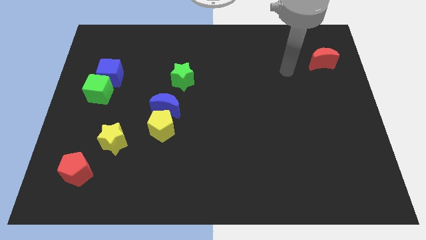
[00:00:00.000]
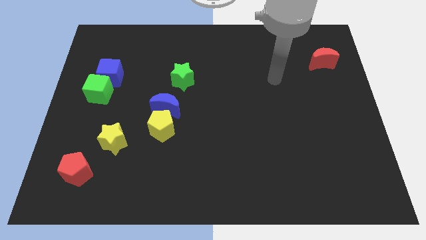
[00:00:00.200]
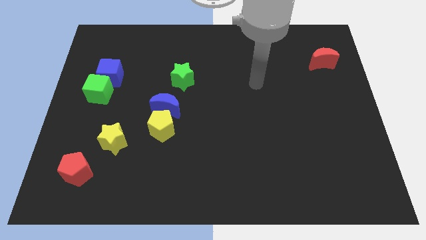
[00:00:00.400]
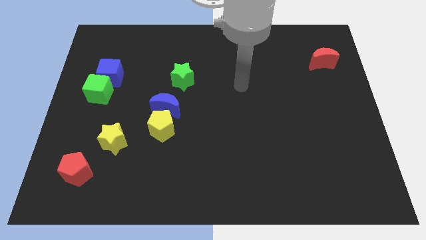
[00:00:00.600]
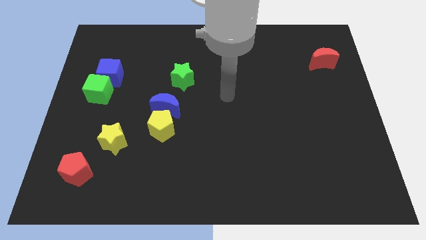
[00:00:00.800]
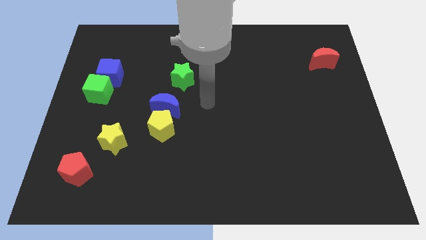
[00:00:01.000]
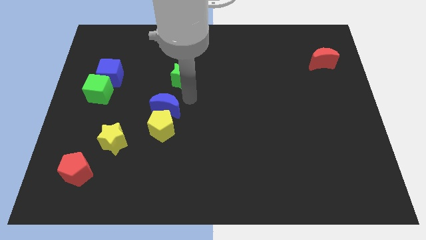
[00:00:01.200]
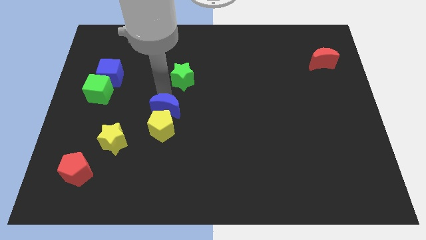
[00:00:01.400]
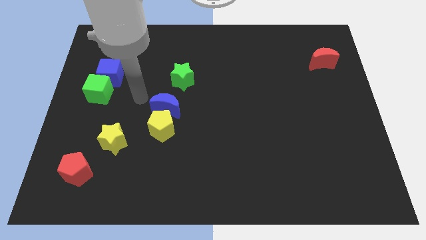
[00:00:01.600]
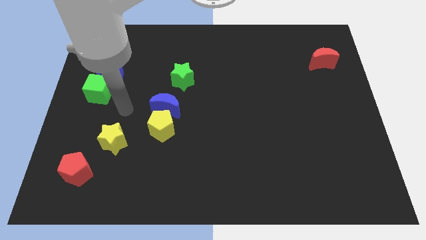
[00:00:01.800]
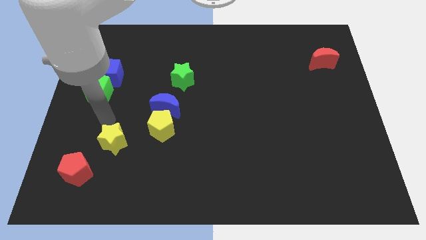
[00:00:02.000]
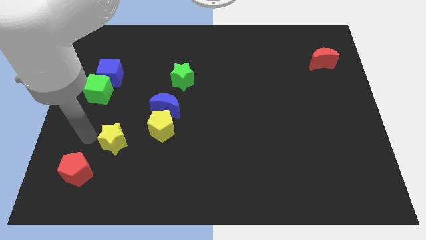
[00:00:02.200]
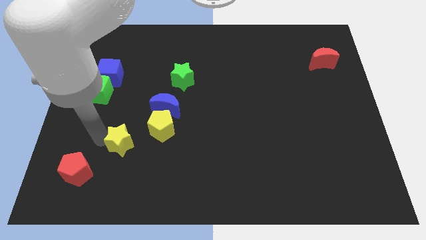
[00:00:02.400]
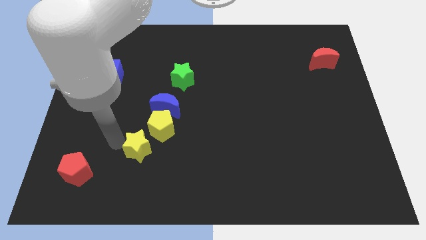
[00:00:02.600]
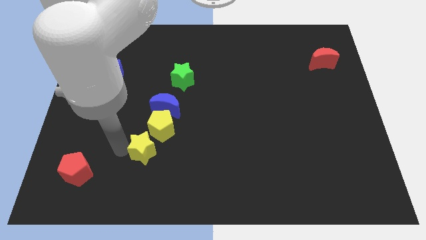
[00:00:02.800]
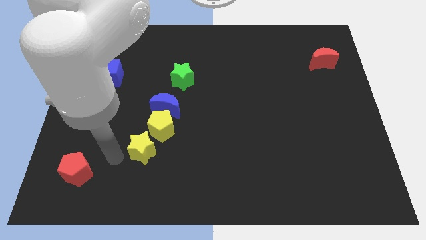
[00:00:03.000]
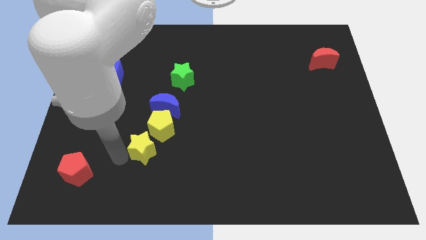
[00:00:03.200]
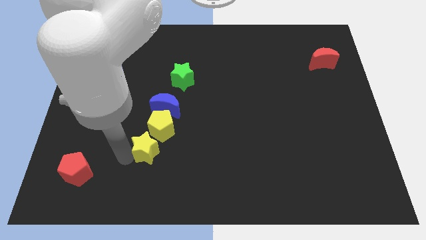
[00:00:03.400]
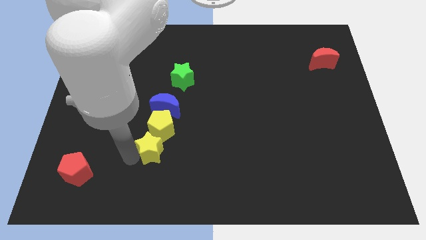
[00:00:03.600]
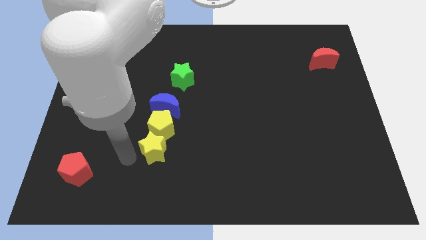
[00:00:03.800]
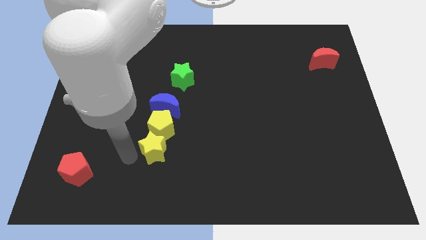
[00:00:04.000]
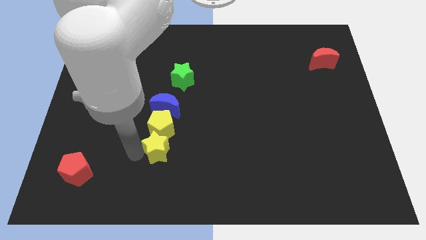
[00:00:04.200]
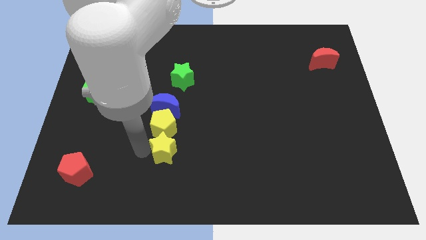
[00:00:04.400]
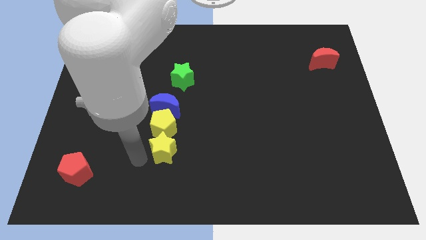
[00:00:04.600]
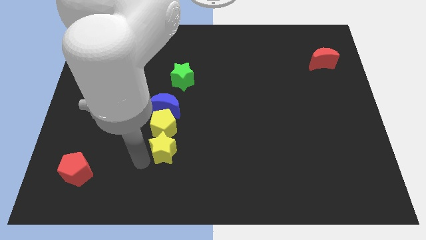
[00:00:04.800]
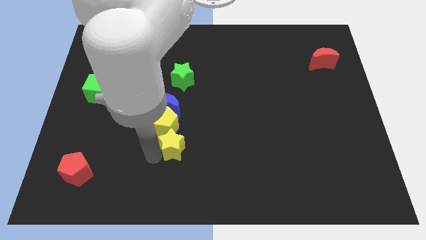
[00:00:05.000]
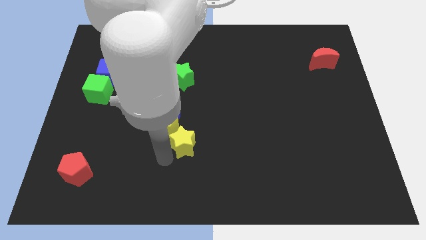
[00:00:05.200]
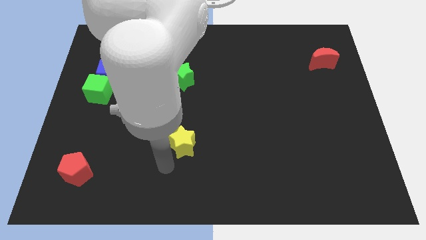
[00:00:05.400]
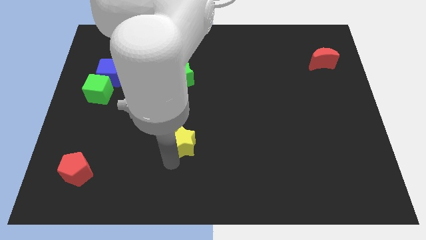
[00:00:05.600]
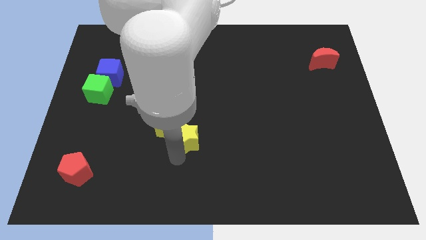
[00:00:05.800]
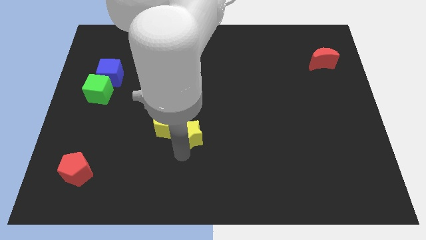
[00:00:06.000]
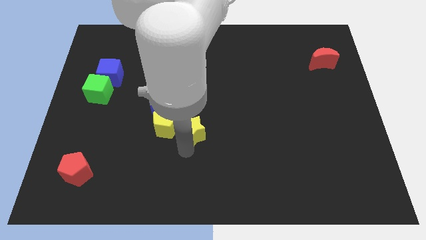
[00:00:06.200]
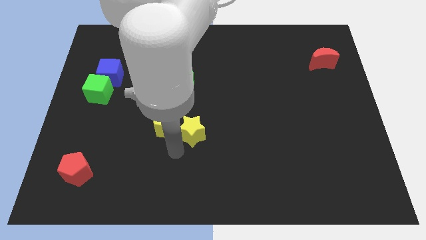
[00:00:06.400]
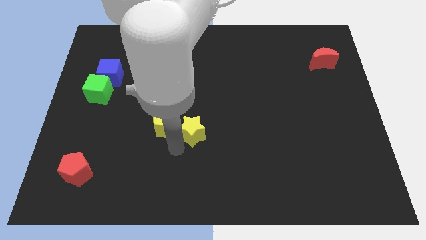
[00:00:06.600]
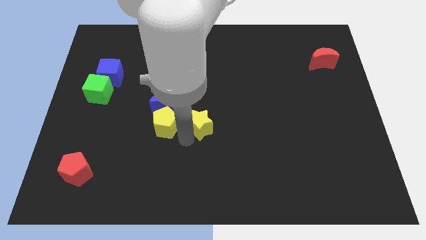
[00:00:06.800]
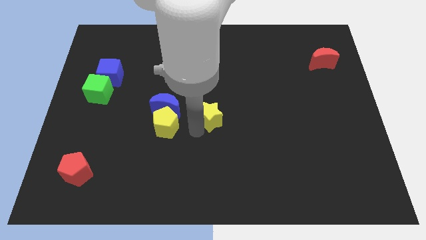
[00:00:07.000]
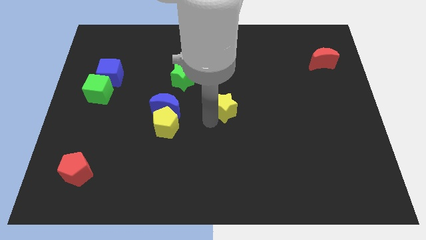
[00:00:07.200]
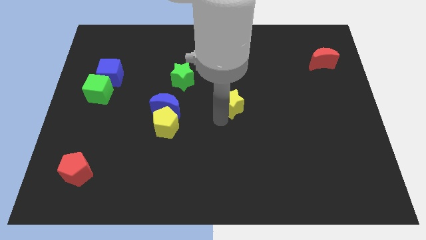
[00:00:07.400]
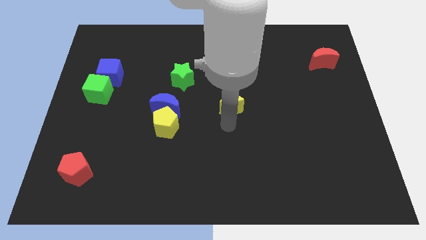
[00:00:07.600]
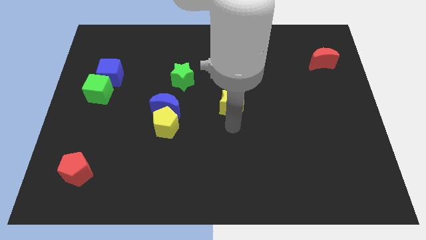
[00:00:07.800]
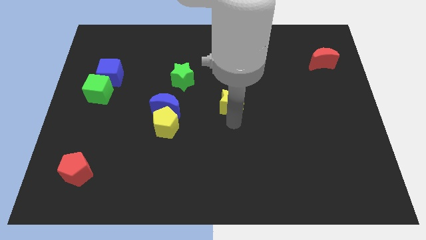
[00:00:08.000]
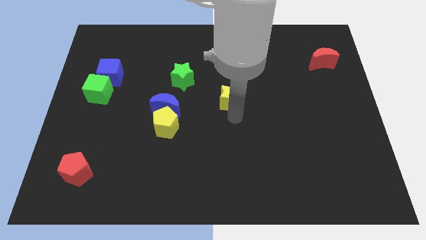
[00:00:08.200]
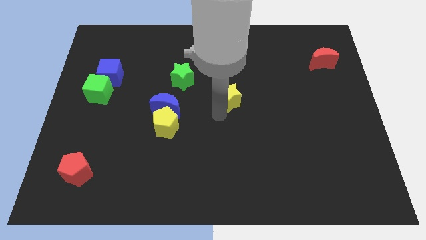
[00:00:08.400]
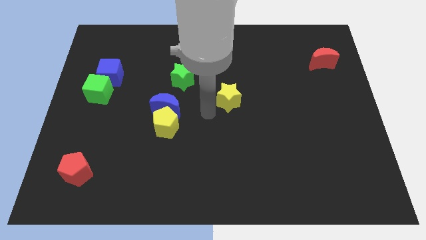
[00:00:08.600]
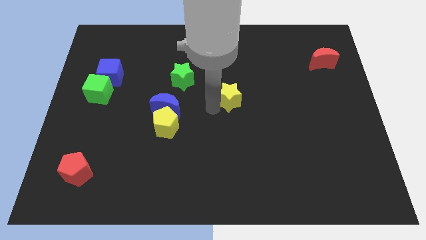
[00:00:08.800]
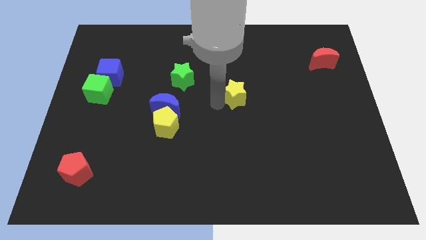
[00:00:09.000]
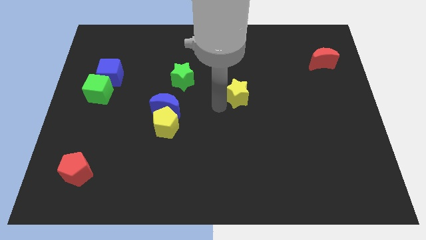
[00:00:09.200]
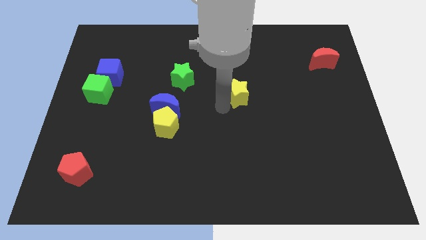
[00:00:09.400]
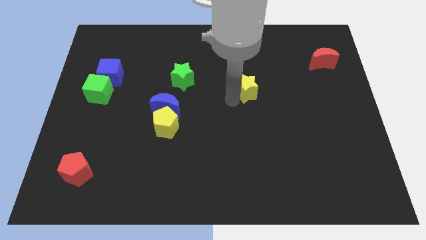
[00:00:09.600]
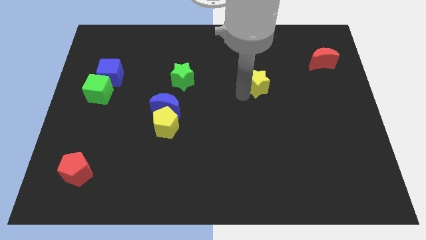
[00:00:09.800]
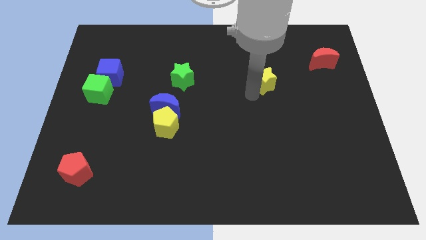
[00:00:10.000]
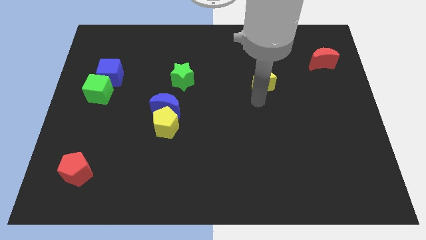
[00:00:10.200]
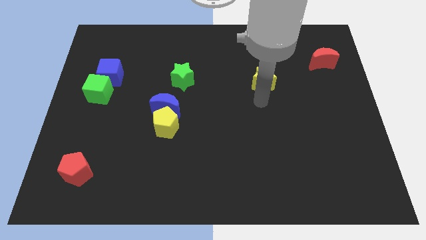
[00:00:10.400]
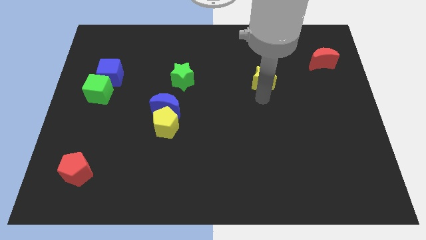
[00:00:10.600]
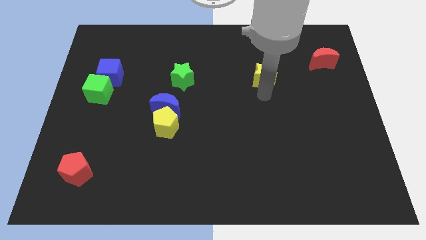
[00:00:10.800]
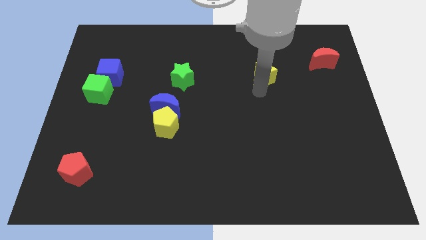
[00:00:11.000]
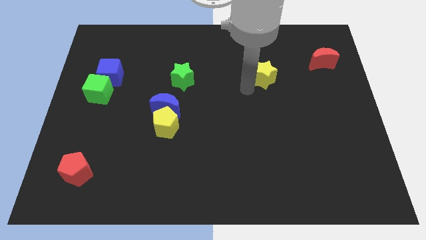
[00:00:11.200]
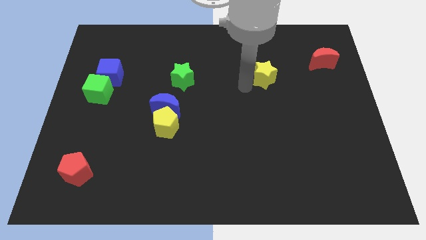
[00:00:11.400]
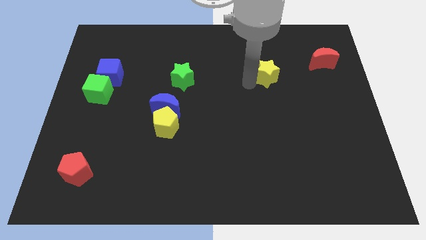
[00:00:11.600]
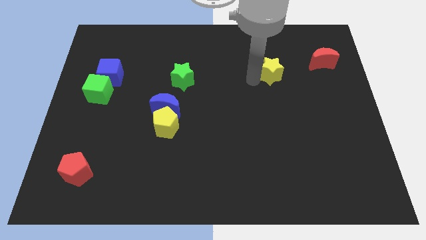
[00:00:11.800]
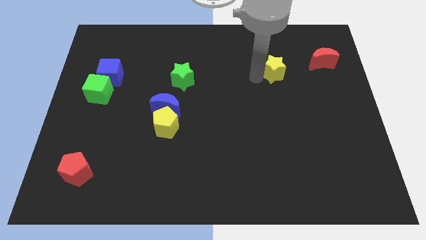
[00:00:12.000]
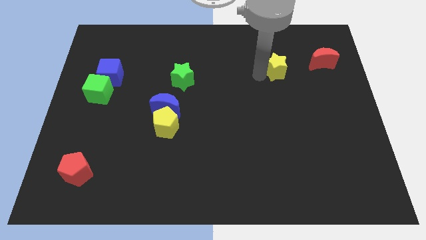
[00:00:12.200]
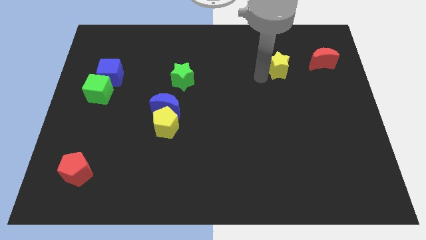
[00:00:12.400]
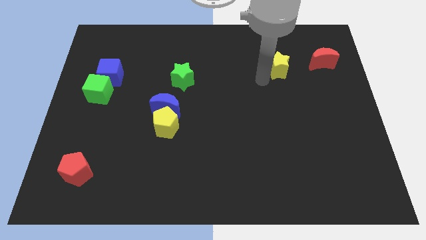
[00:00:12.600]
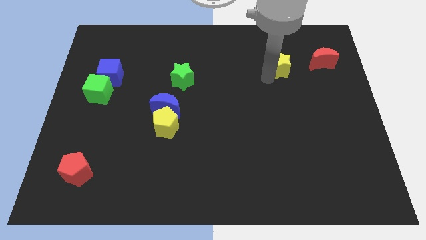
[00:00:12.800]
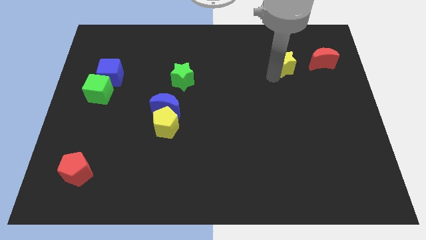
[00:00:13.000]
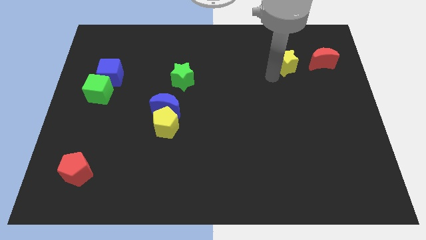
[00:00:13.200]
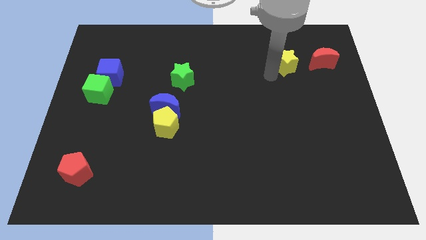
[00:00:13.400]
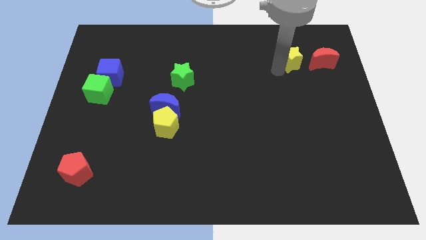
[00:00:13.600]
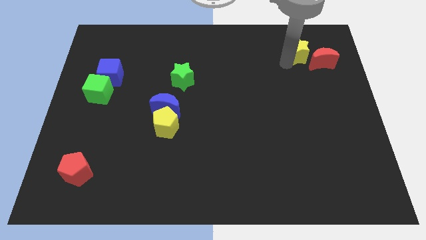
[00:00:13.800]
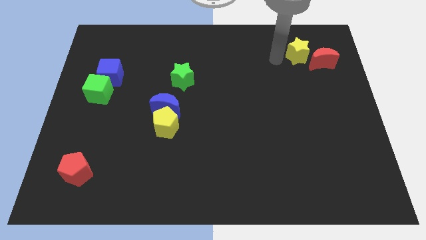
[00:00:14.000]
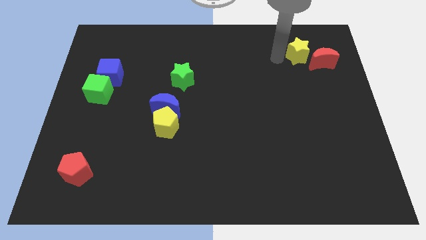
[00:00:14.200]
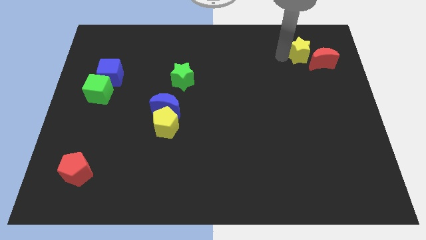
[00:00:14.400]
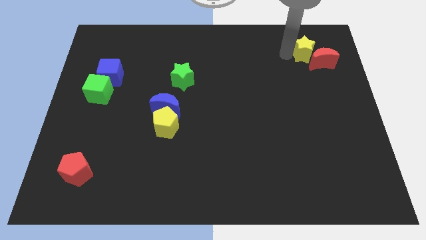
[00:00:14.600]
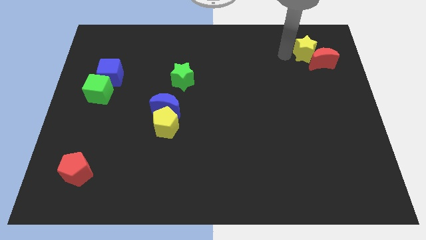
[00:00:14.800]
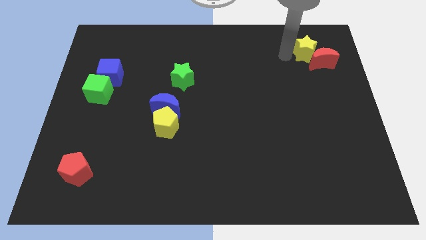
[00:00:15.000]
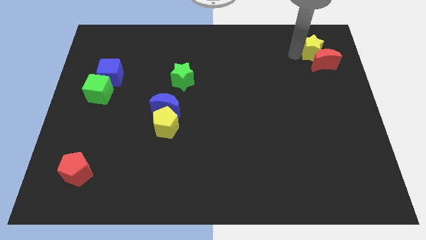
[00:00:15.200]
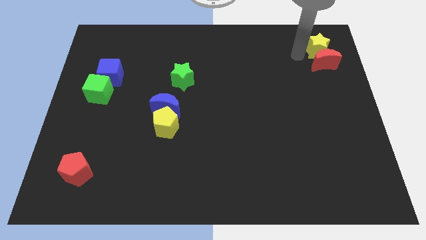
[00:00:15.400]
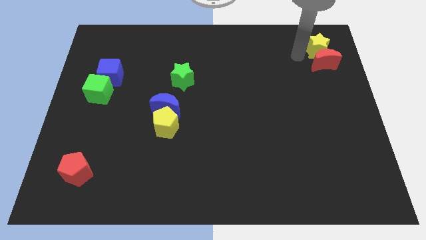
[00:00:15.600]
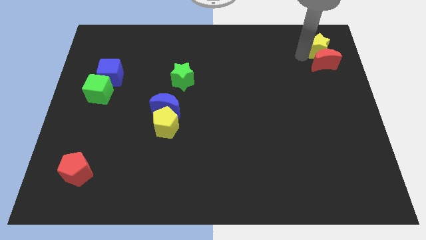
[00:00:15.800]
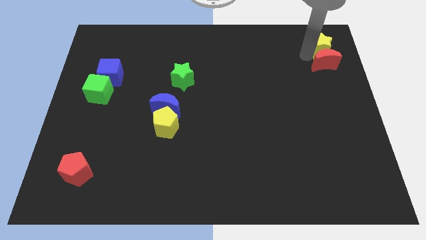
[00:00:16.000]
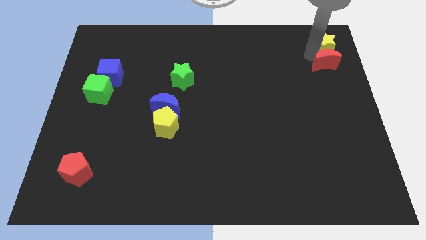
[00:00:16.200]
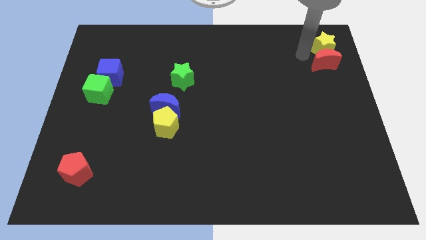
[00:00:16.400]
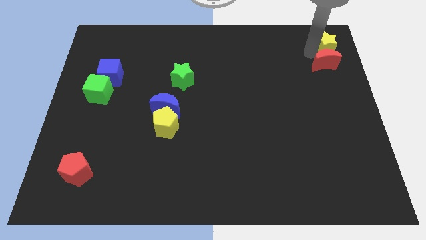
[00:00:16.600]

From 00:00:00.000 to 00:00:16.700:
slide the yellow star to the top right
